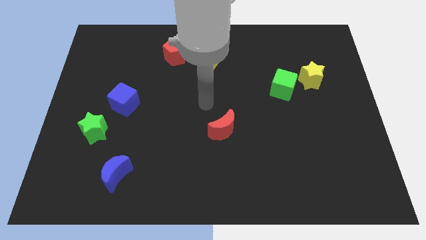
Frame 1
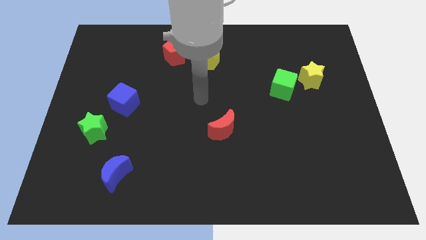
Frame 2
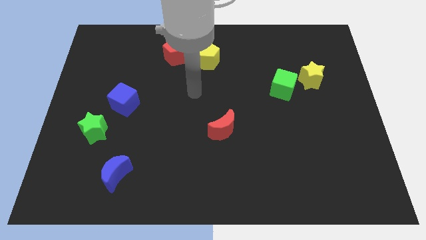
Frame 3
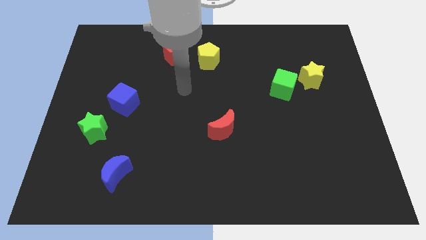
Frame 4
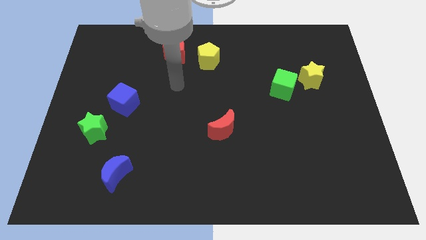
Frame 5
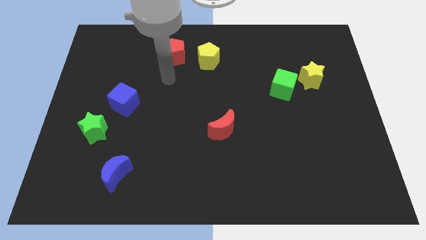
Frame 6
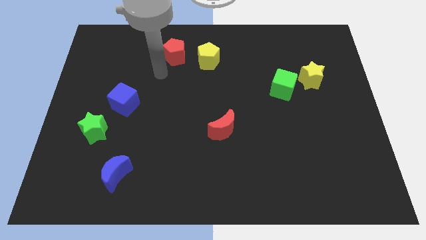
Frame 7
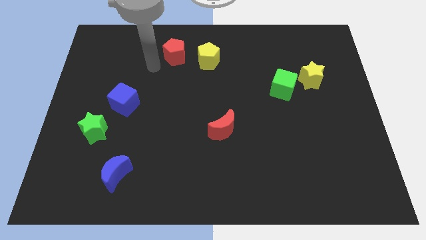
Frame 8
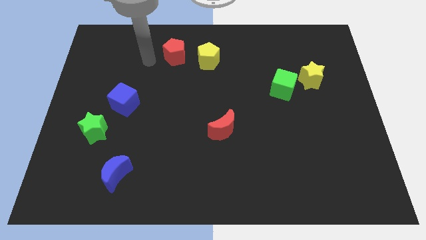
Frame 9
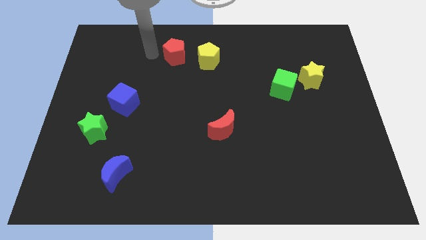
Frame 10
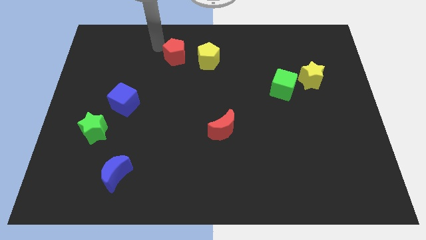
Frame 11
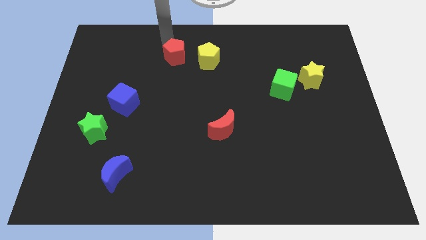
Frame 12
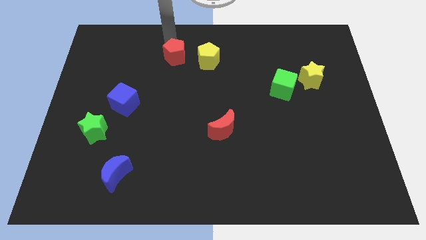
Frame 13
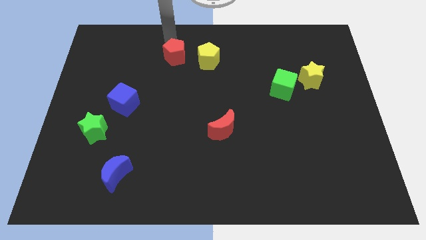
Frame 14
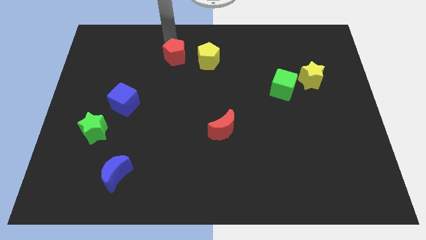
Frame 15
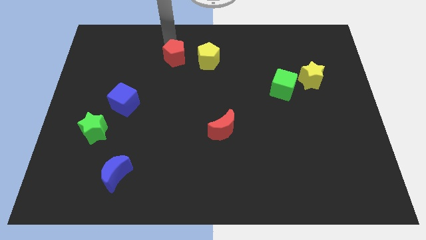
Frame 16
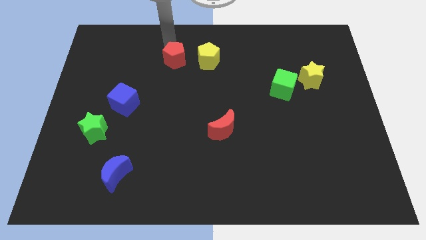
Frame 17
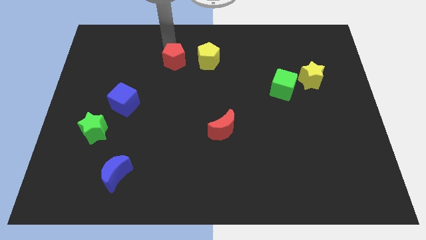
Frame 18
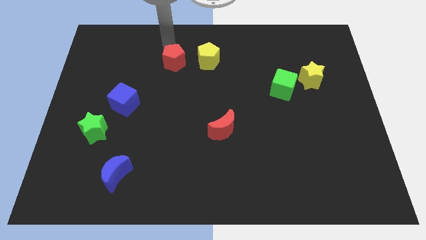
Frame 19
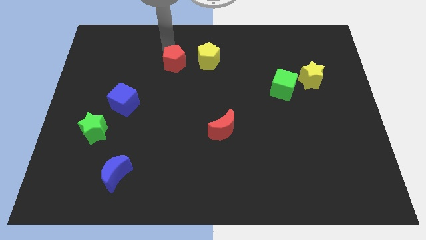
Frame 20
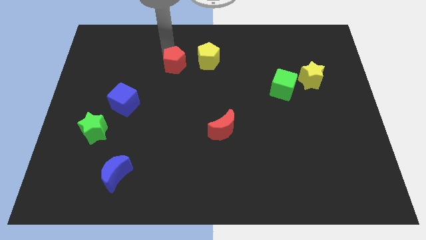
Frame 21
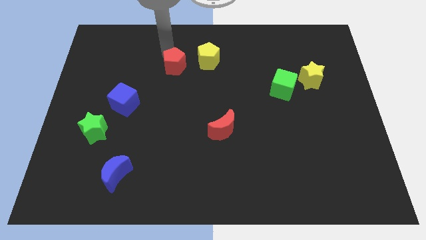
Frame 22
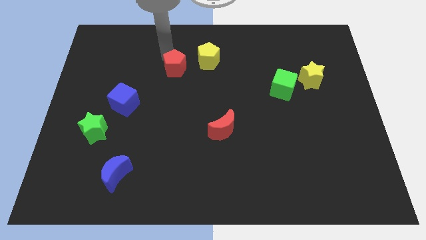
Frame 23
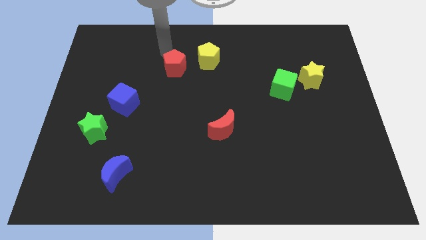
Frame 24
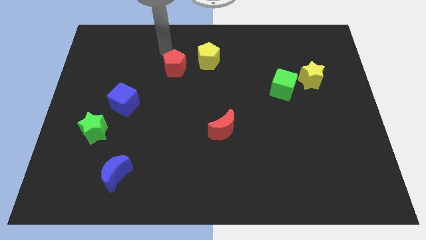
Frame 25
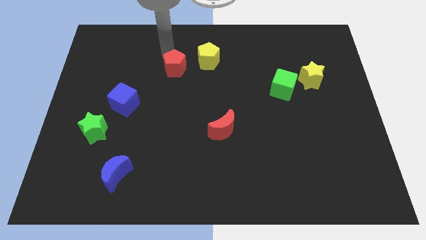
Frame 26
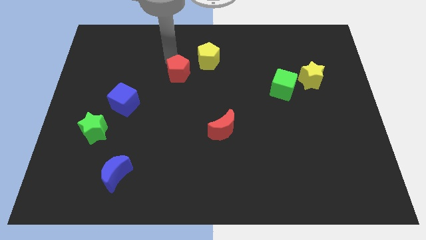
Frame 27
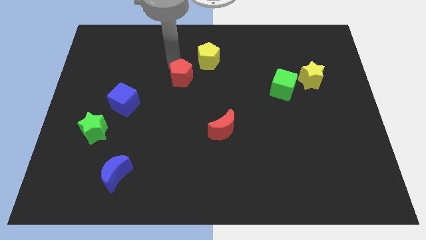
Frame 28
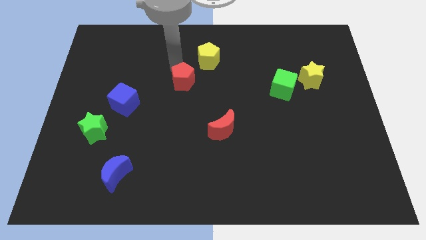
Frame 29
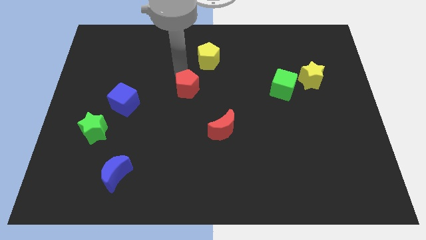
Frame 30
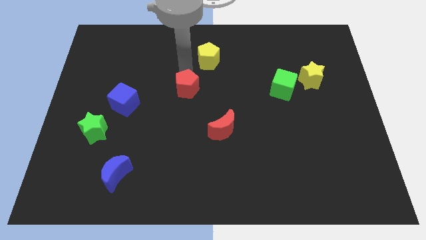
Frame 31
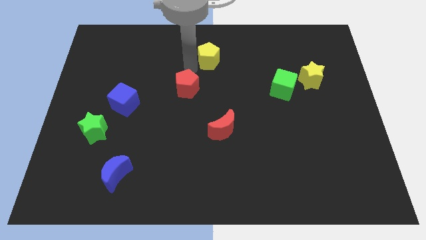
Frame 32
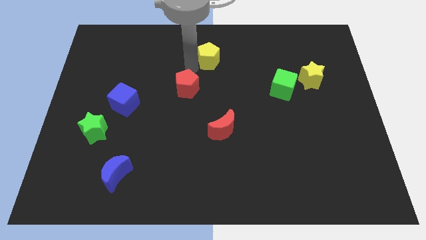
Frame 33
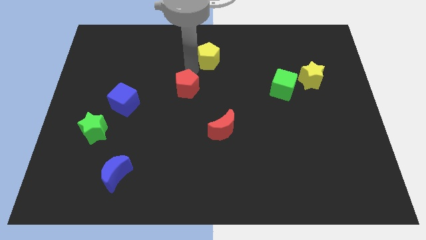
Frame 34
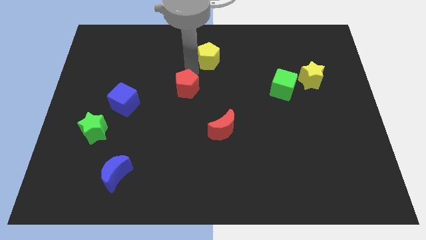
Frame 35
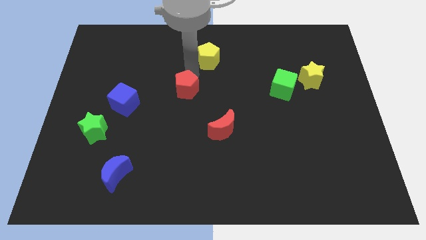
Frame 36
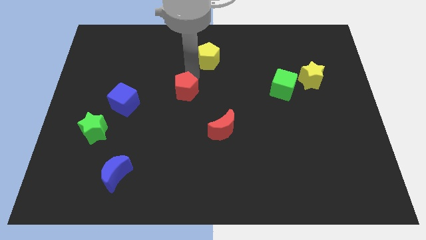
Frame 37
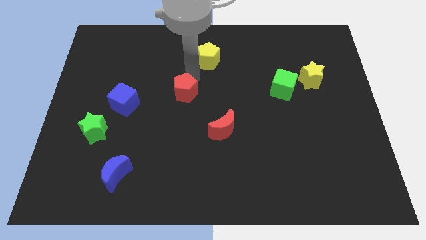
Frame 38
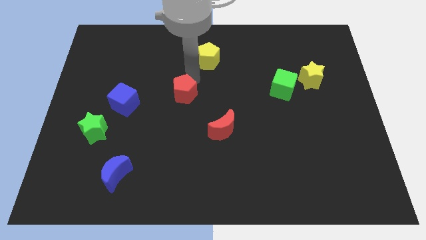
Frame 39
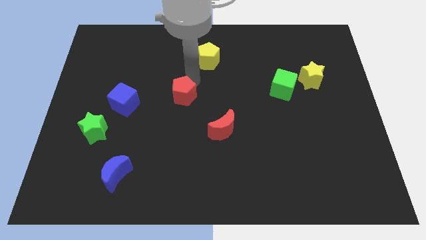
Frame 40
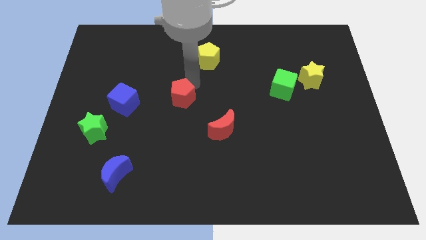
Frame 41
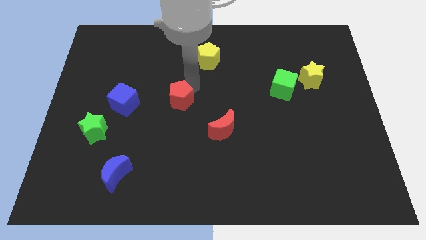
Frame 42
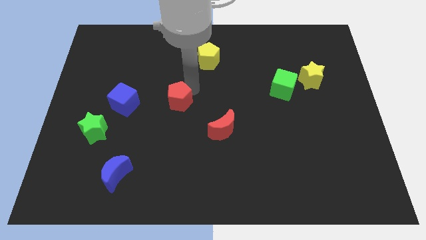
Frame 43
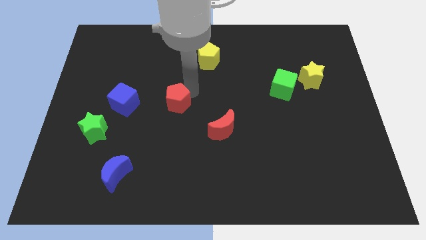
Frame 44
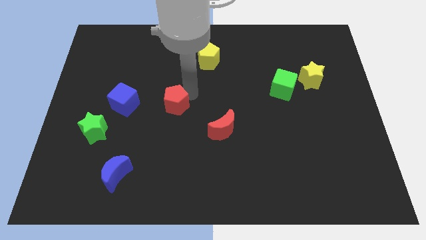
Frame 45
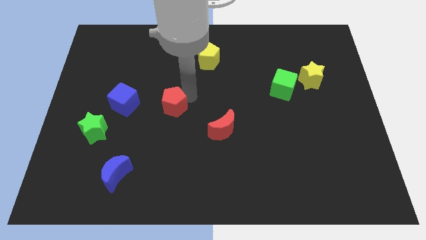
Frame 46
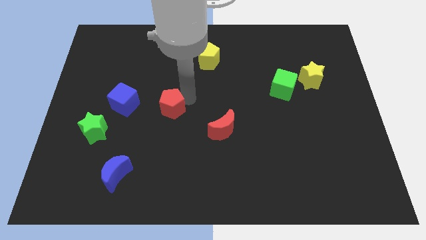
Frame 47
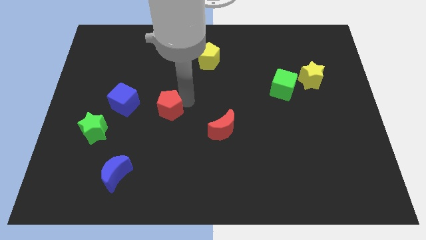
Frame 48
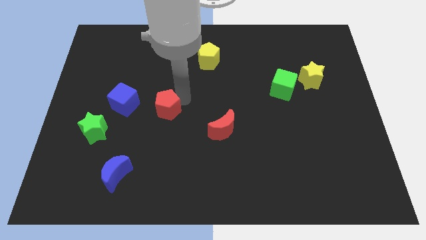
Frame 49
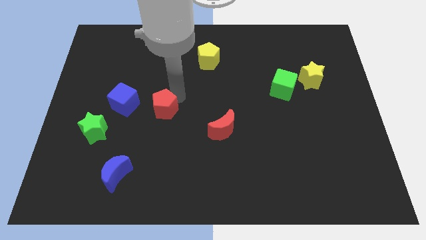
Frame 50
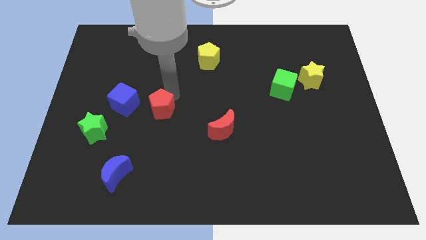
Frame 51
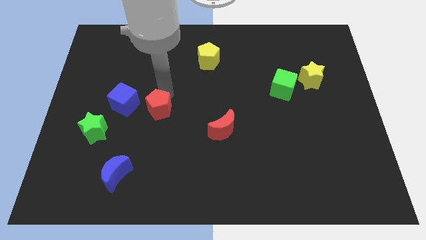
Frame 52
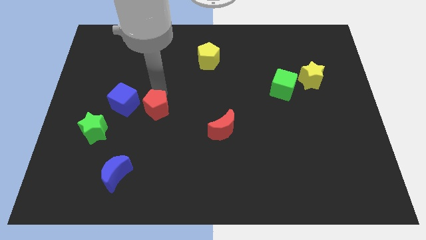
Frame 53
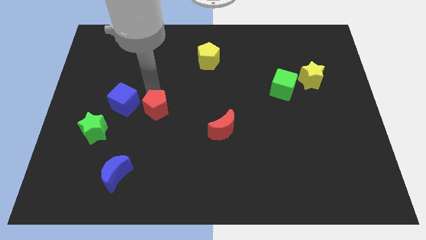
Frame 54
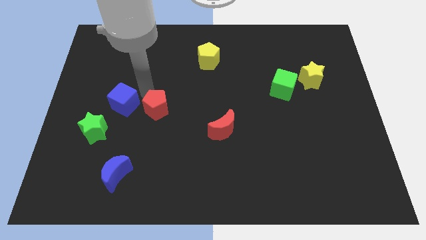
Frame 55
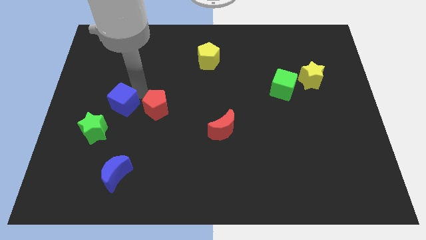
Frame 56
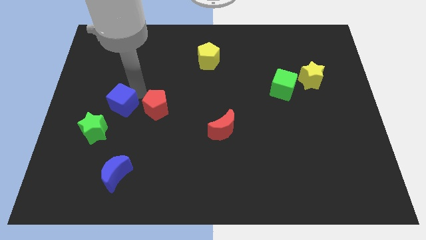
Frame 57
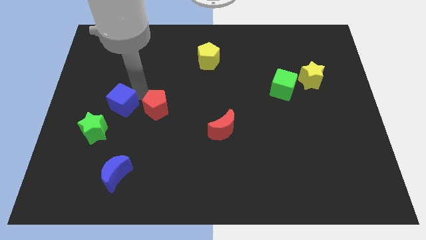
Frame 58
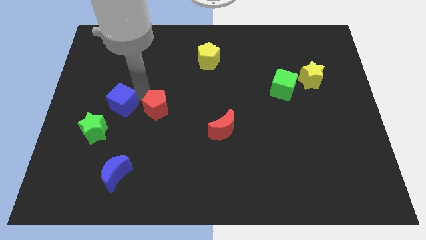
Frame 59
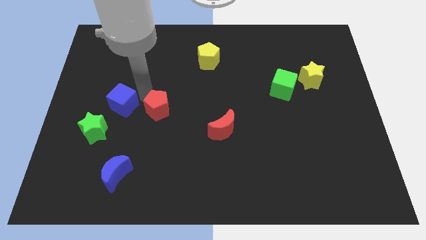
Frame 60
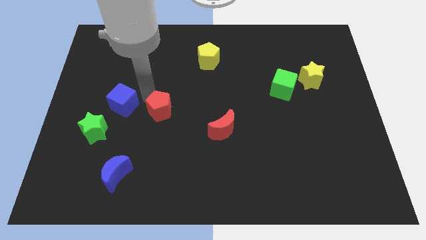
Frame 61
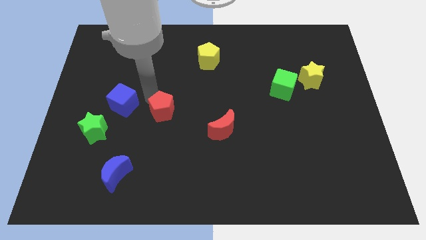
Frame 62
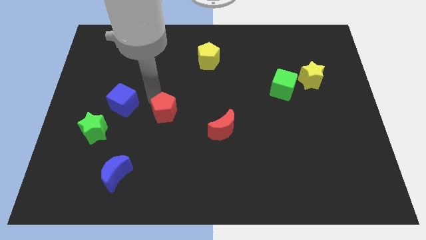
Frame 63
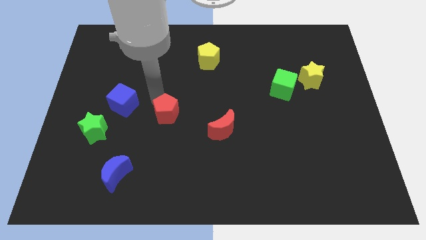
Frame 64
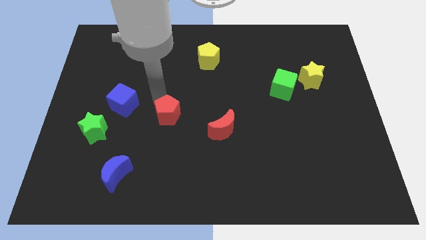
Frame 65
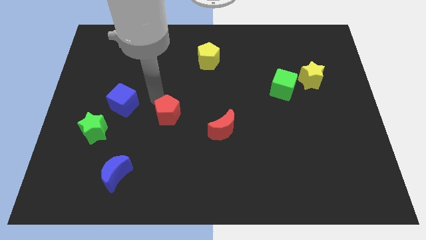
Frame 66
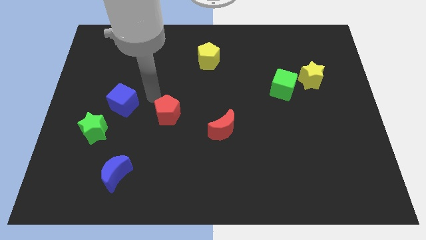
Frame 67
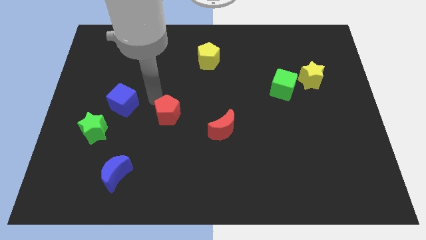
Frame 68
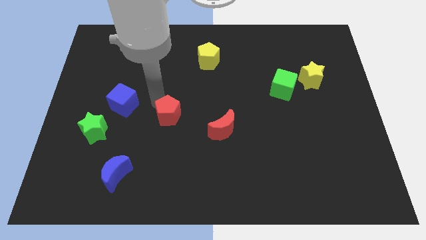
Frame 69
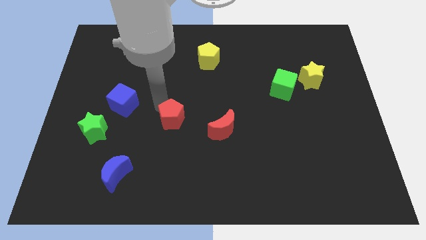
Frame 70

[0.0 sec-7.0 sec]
move the red pentagon down

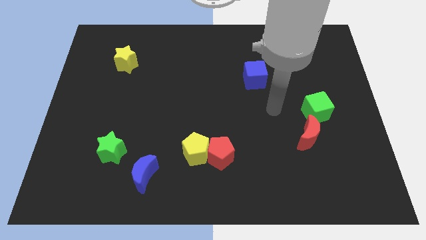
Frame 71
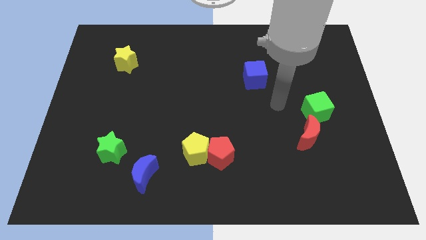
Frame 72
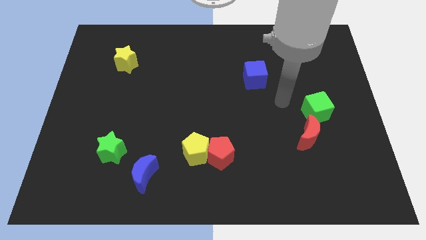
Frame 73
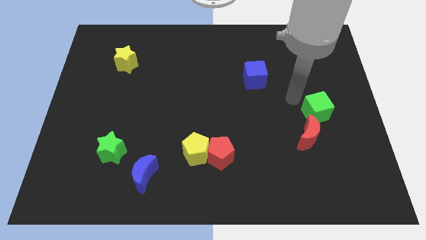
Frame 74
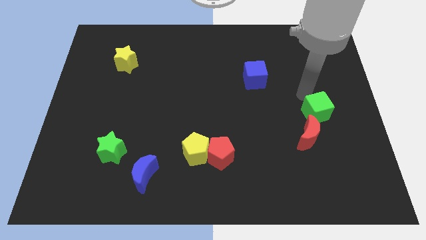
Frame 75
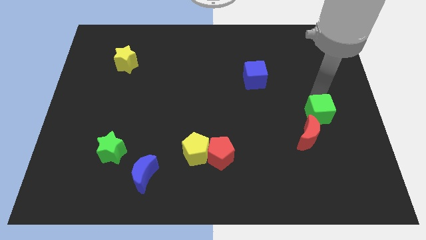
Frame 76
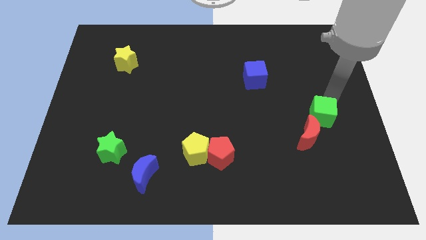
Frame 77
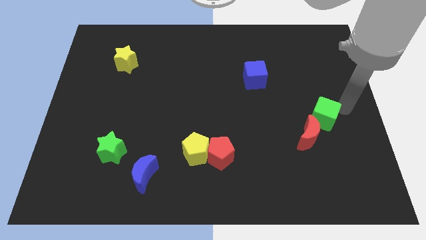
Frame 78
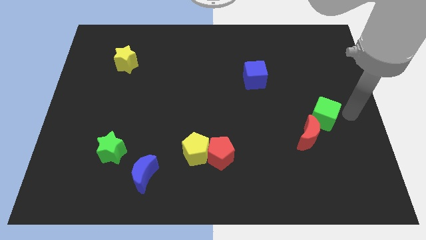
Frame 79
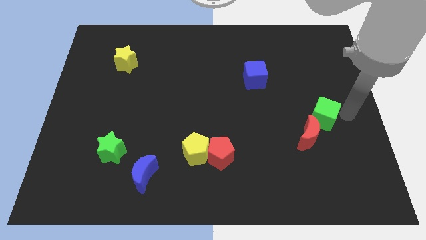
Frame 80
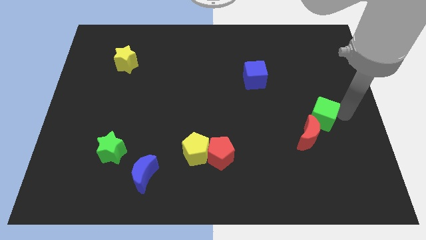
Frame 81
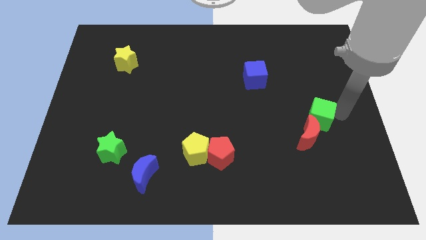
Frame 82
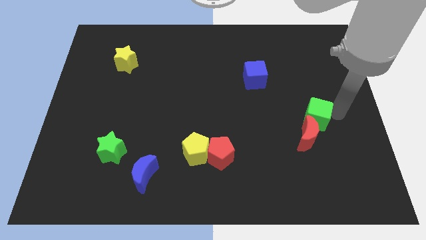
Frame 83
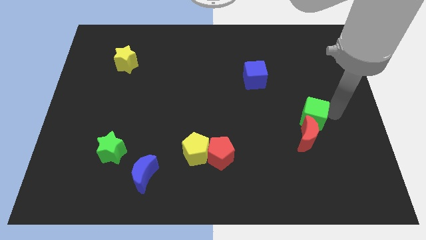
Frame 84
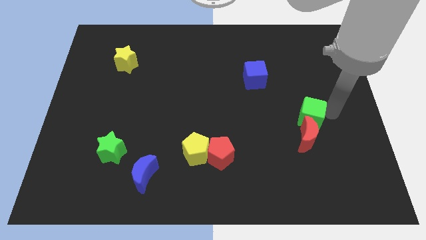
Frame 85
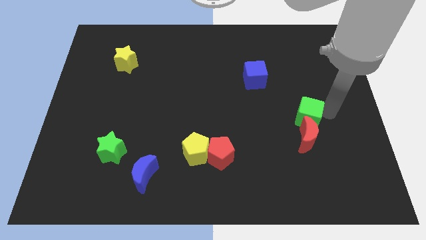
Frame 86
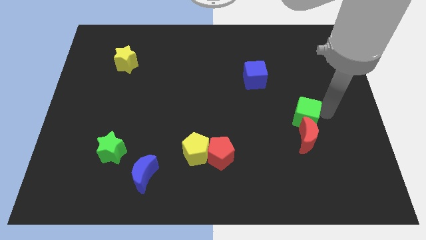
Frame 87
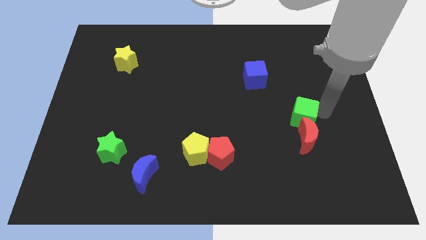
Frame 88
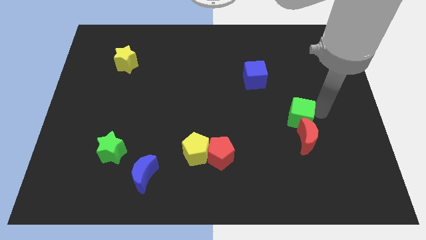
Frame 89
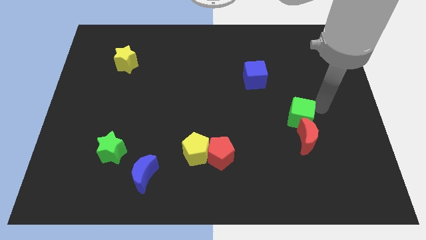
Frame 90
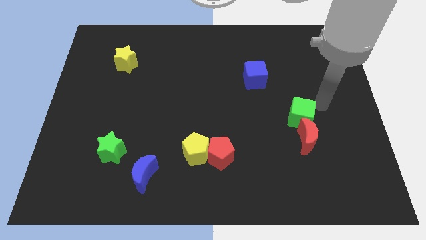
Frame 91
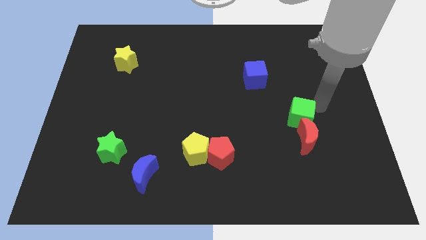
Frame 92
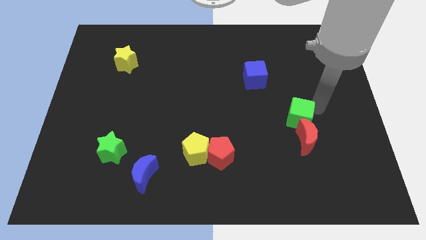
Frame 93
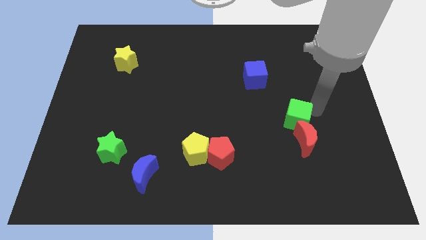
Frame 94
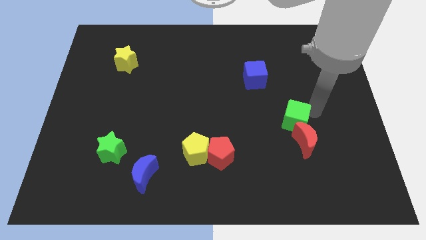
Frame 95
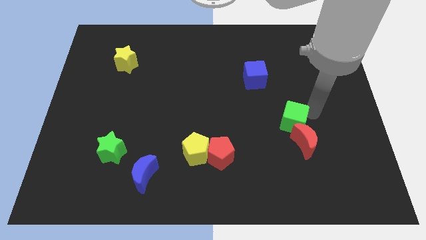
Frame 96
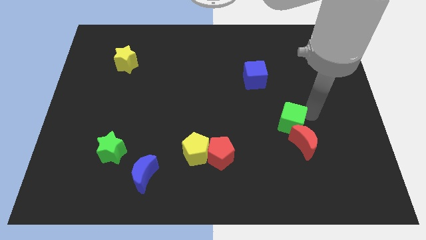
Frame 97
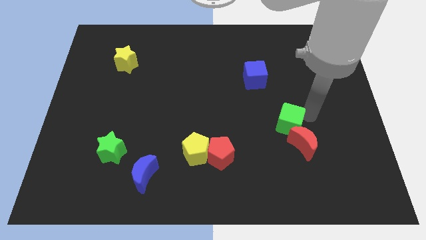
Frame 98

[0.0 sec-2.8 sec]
push the green cube diagonally downwards and to the left a little
